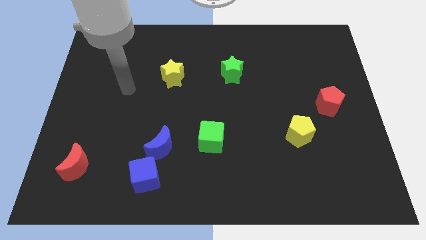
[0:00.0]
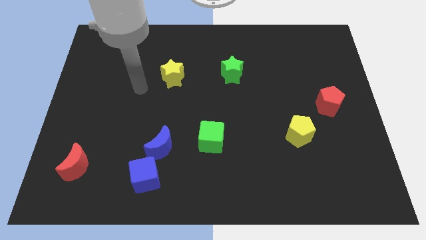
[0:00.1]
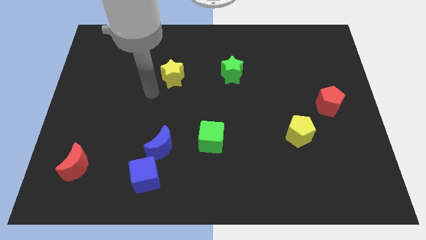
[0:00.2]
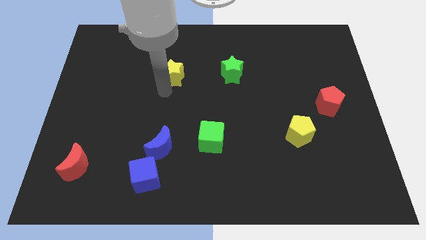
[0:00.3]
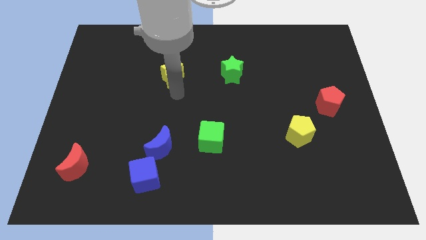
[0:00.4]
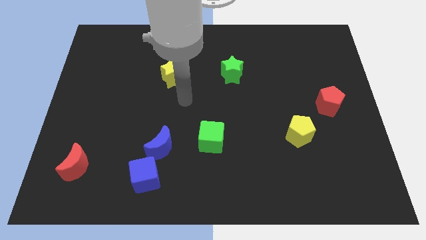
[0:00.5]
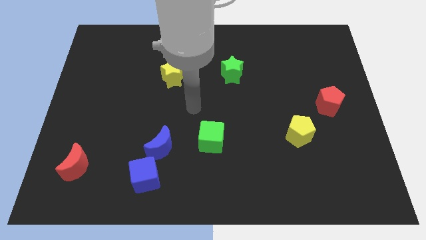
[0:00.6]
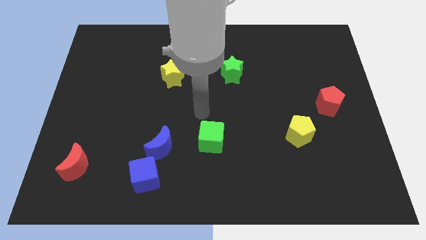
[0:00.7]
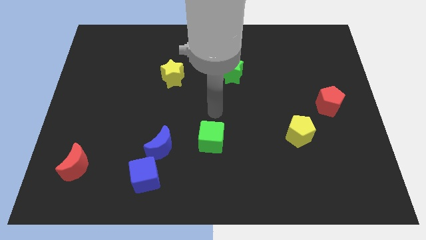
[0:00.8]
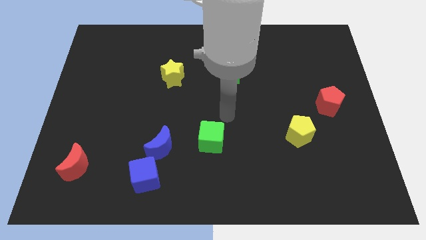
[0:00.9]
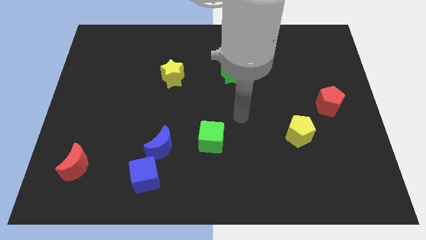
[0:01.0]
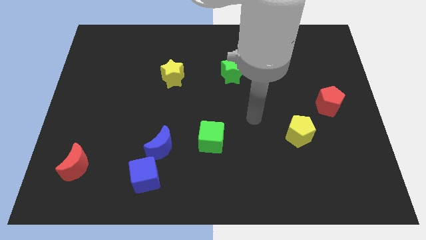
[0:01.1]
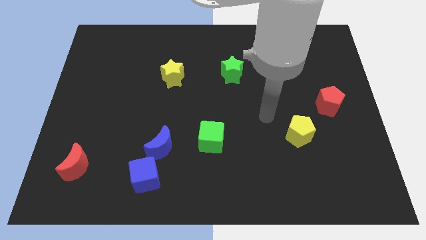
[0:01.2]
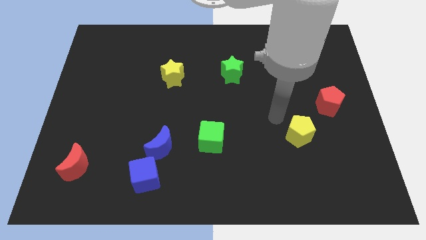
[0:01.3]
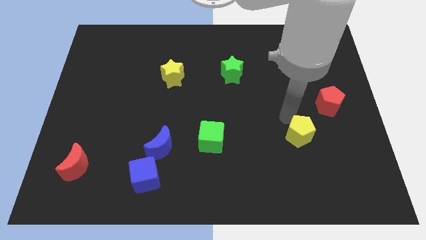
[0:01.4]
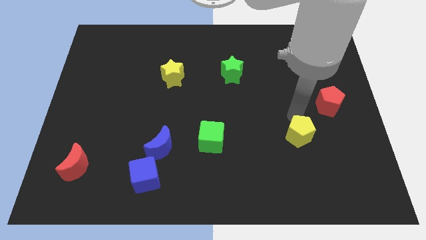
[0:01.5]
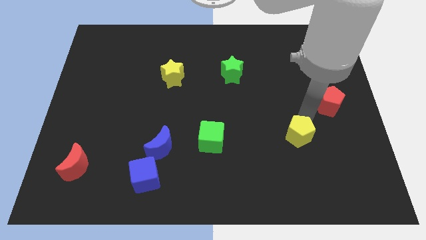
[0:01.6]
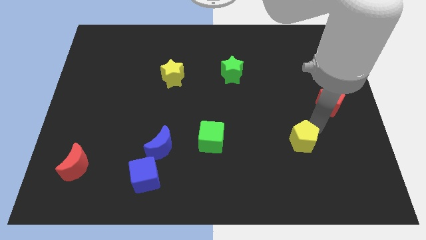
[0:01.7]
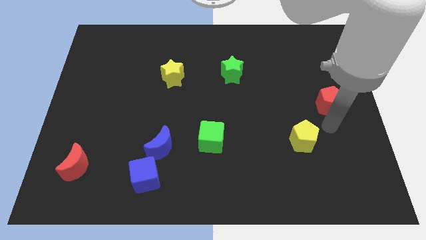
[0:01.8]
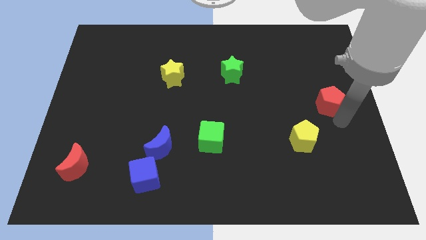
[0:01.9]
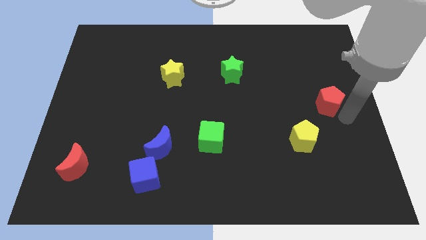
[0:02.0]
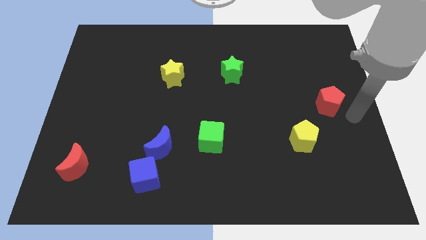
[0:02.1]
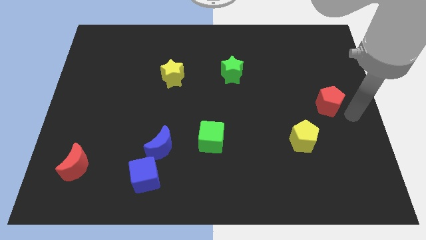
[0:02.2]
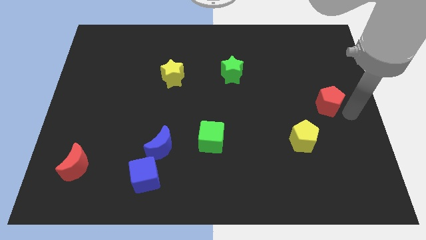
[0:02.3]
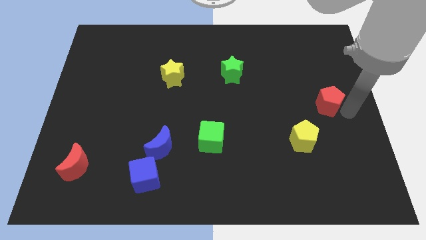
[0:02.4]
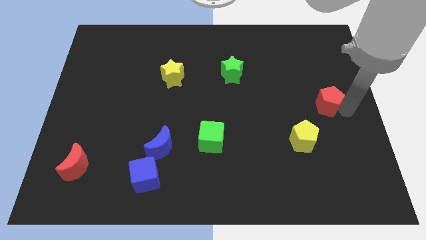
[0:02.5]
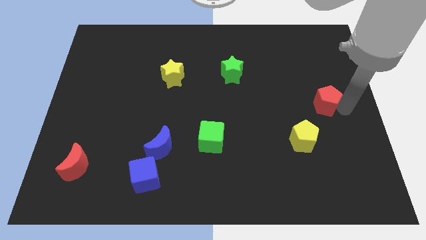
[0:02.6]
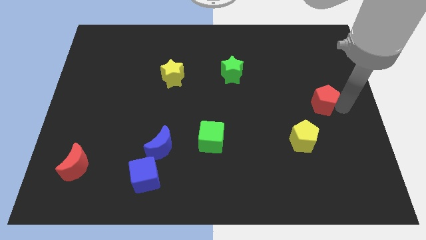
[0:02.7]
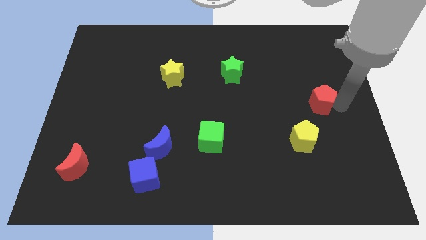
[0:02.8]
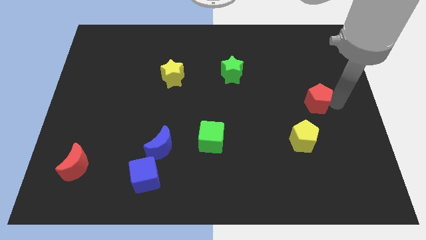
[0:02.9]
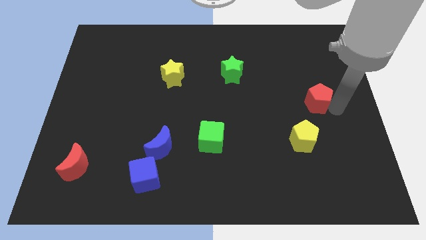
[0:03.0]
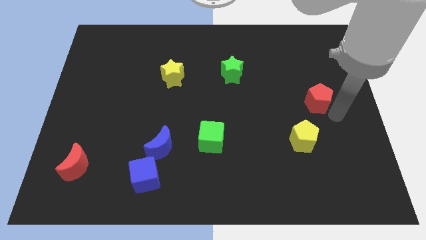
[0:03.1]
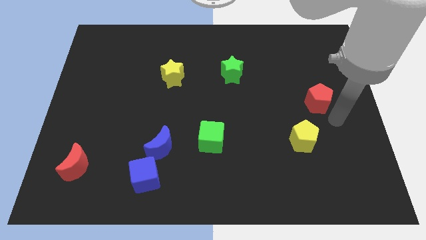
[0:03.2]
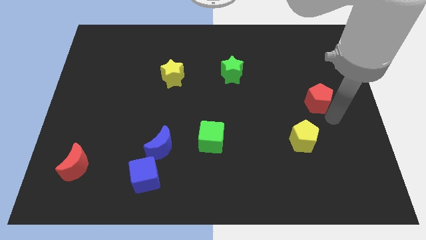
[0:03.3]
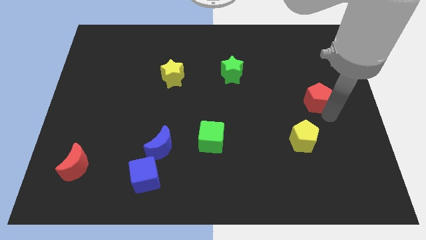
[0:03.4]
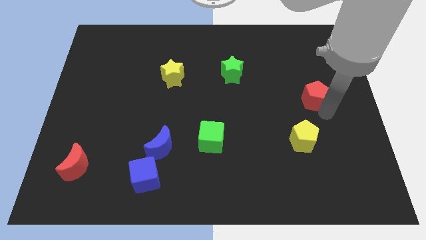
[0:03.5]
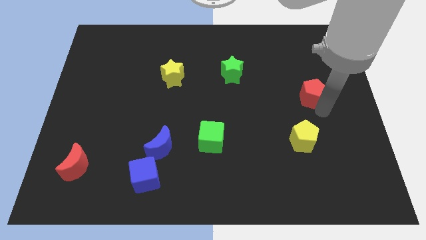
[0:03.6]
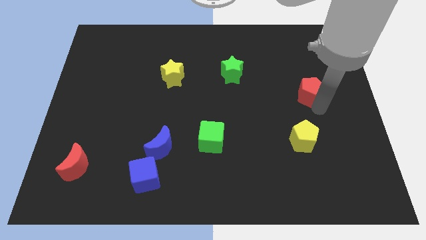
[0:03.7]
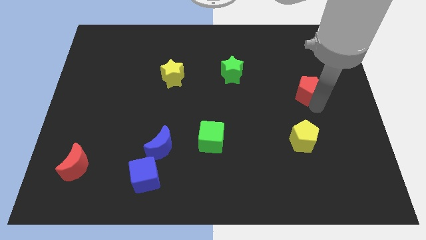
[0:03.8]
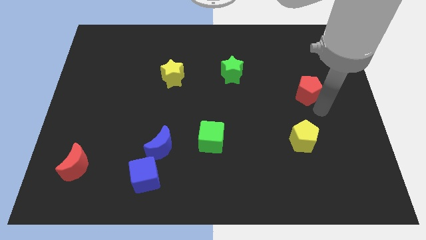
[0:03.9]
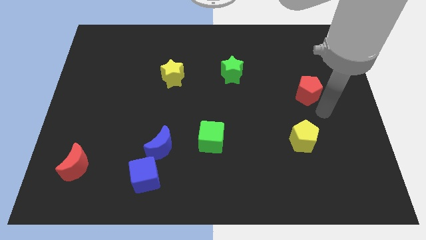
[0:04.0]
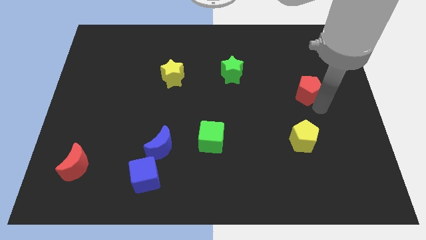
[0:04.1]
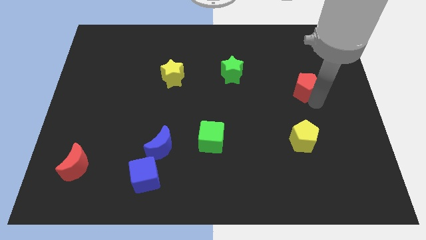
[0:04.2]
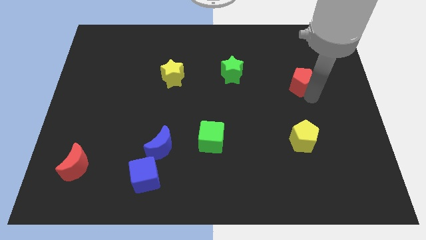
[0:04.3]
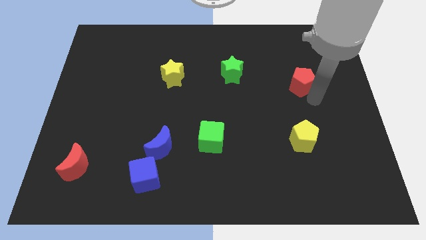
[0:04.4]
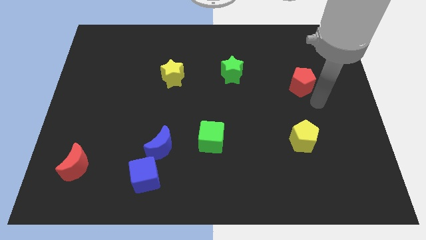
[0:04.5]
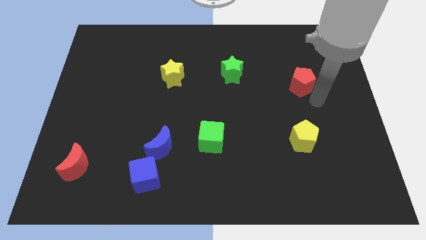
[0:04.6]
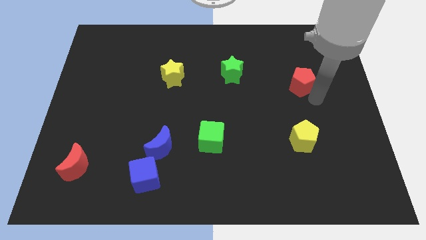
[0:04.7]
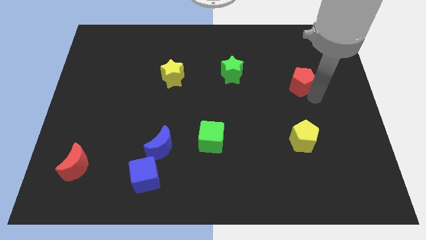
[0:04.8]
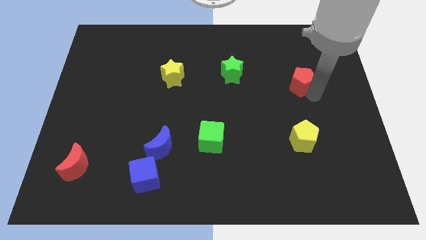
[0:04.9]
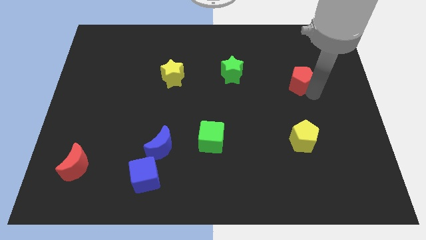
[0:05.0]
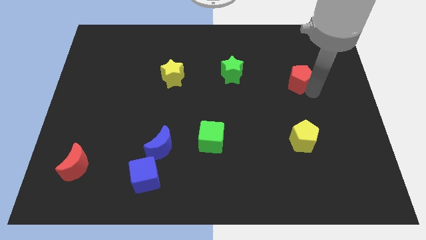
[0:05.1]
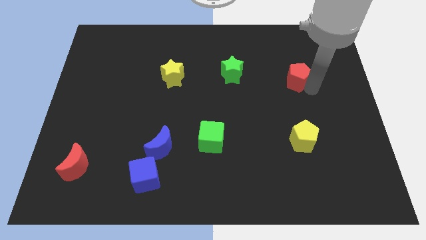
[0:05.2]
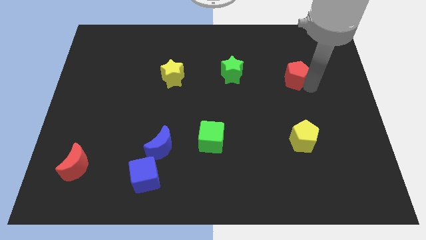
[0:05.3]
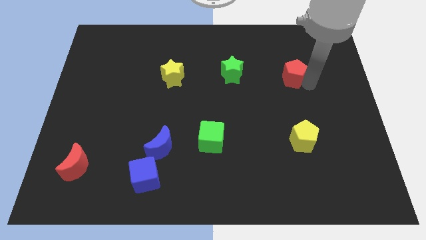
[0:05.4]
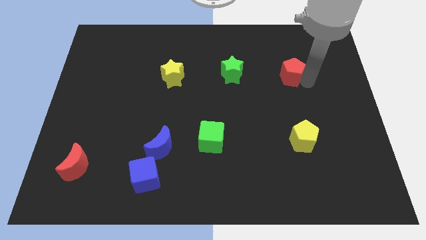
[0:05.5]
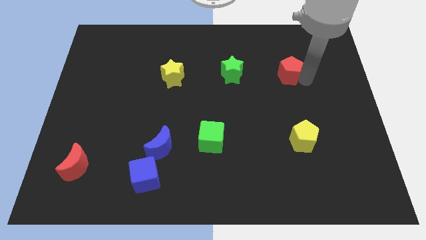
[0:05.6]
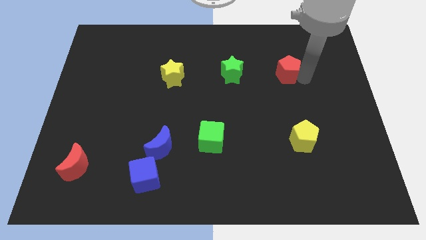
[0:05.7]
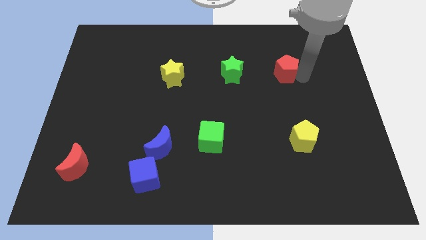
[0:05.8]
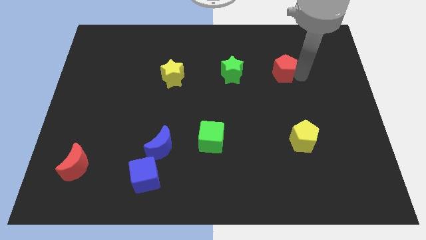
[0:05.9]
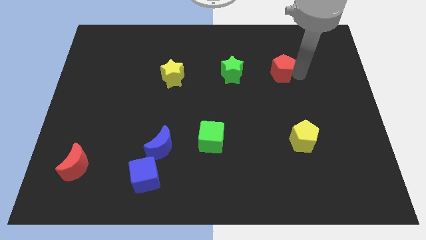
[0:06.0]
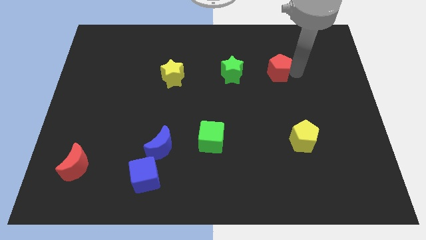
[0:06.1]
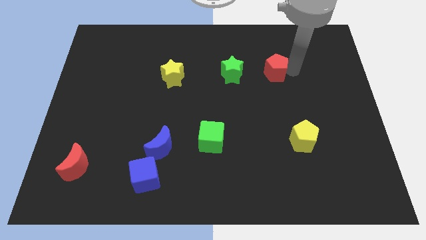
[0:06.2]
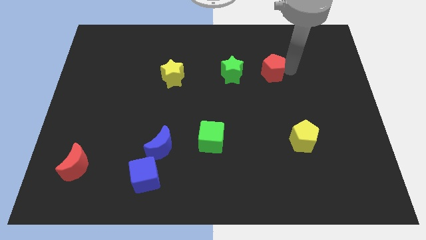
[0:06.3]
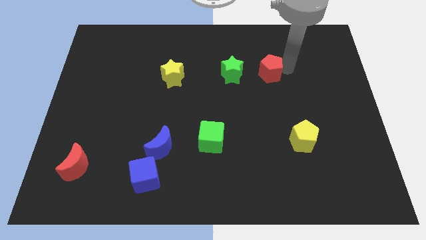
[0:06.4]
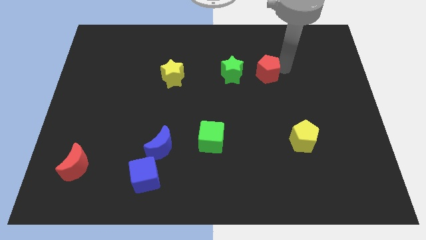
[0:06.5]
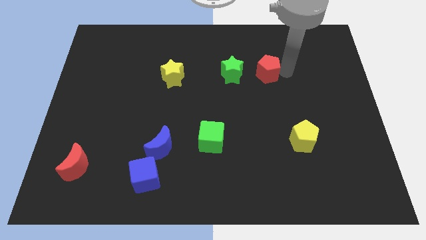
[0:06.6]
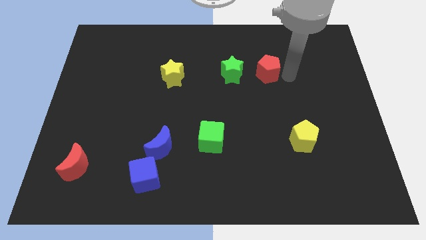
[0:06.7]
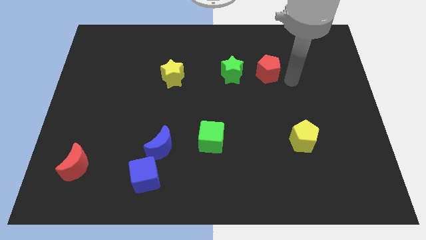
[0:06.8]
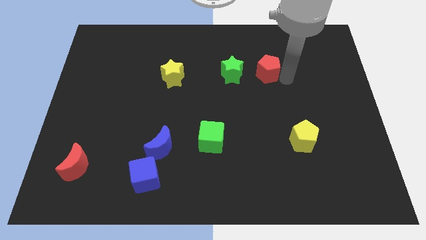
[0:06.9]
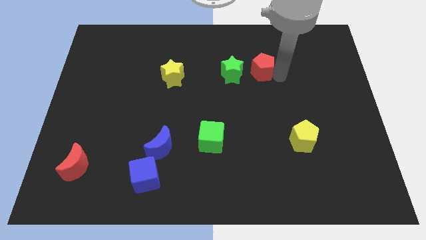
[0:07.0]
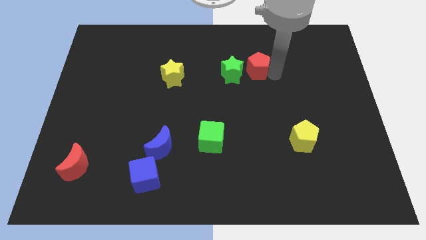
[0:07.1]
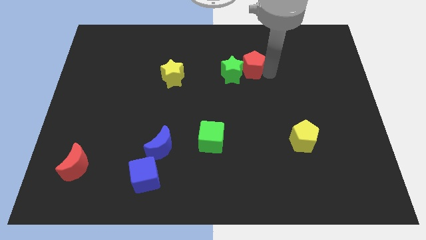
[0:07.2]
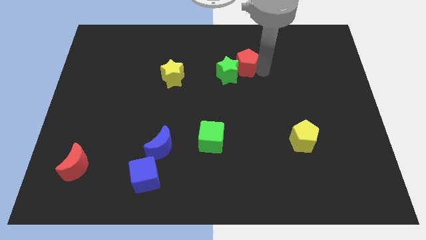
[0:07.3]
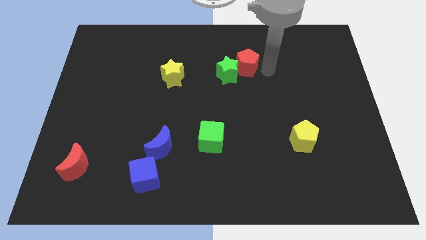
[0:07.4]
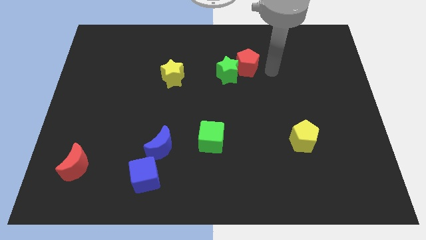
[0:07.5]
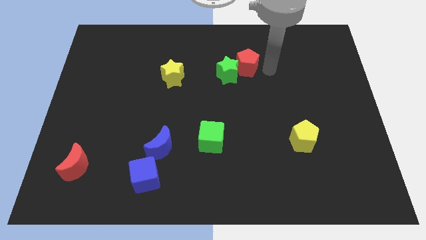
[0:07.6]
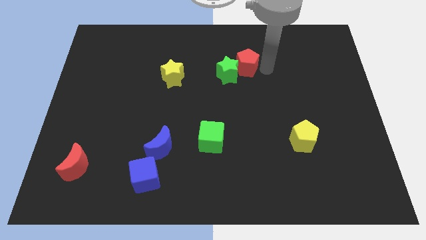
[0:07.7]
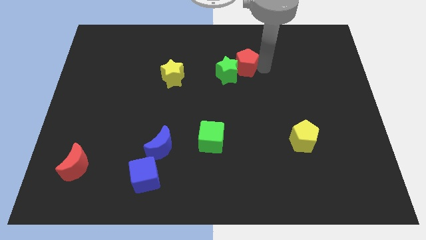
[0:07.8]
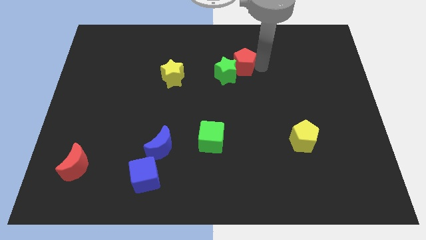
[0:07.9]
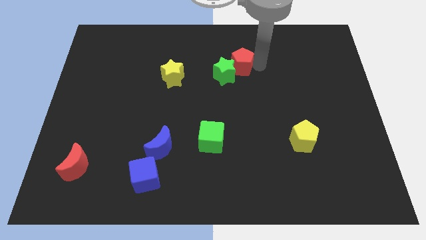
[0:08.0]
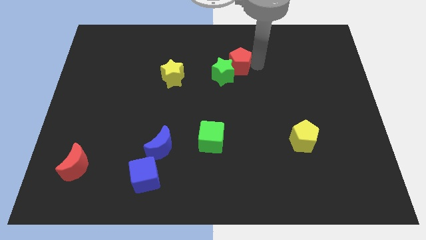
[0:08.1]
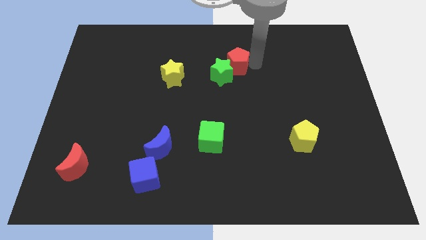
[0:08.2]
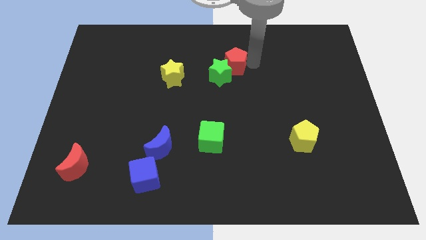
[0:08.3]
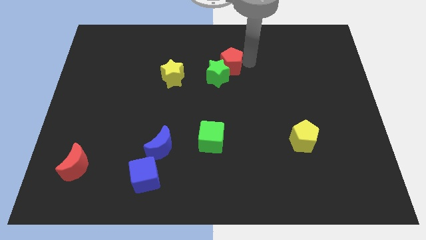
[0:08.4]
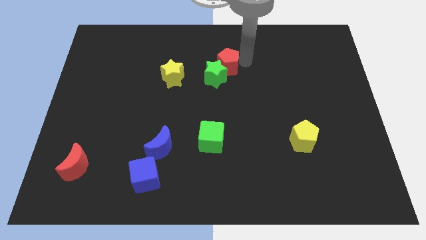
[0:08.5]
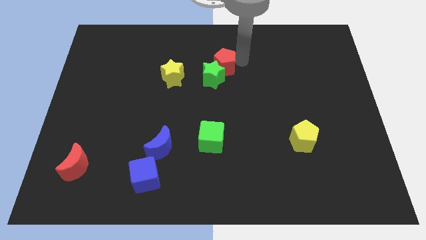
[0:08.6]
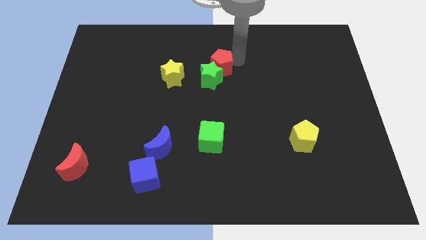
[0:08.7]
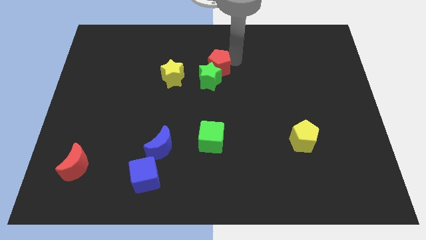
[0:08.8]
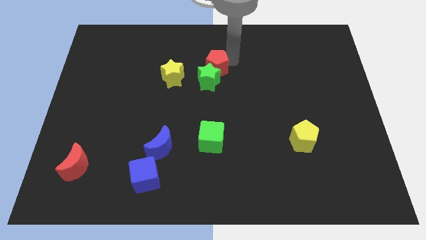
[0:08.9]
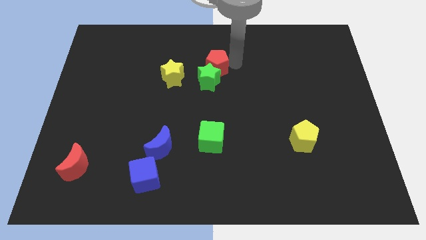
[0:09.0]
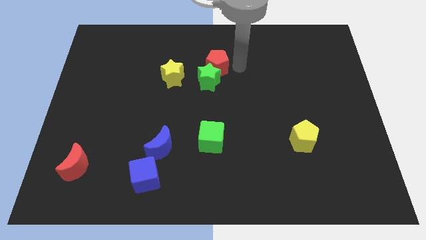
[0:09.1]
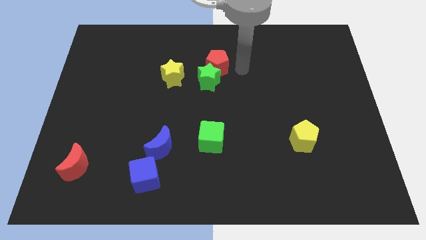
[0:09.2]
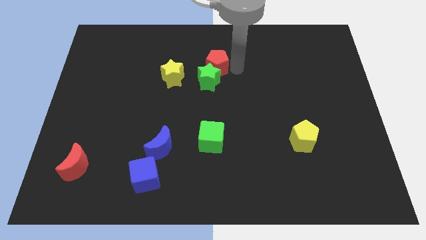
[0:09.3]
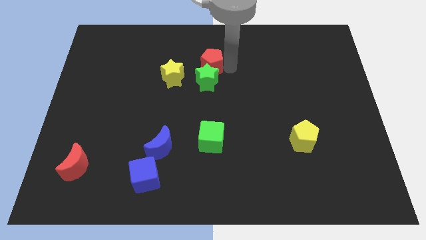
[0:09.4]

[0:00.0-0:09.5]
put the red pentagon to the top right of the yellow star
